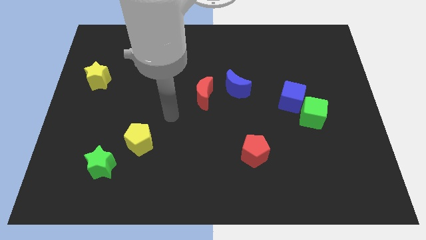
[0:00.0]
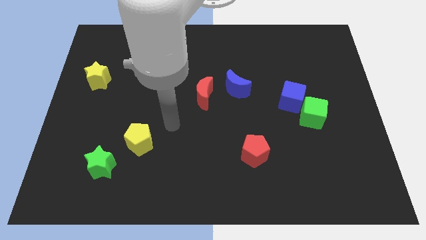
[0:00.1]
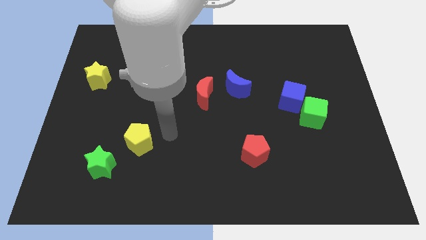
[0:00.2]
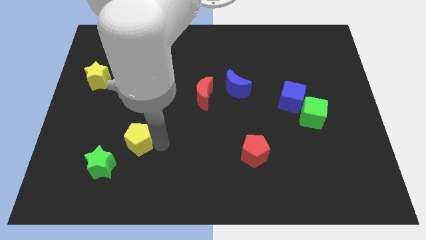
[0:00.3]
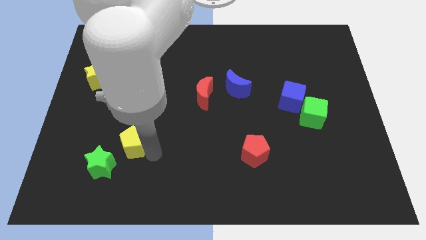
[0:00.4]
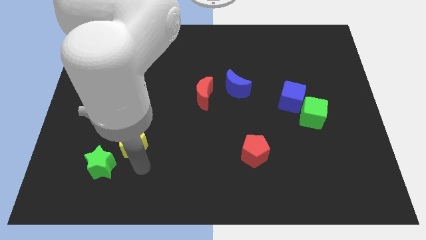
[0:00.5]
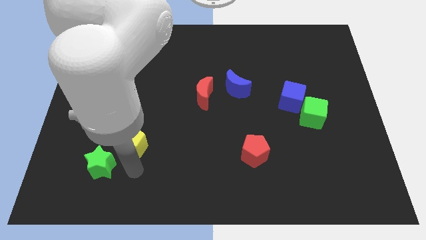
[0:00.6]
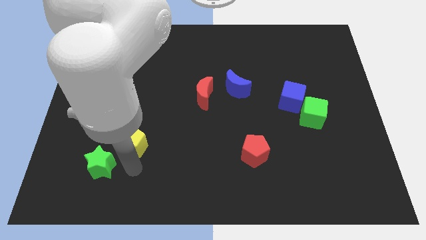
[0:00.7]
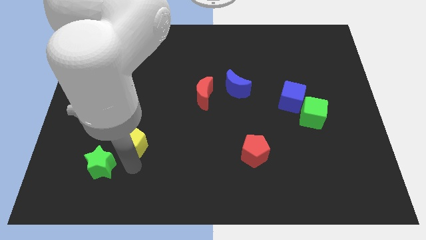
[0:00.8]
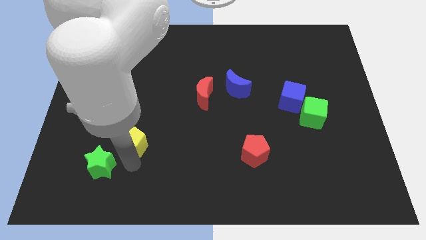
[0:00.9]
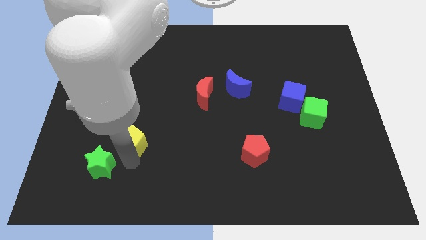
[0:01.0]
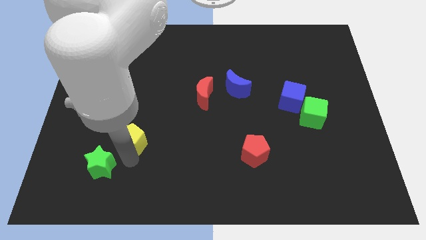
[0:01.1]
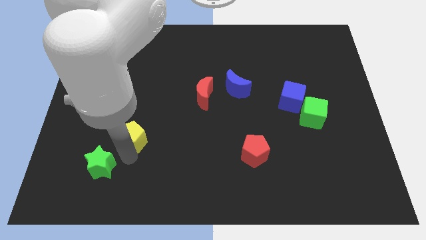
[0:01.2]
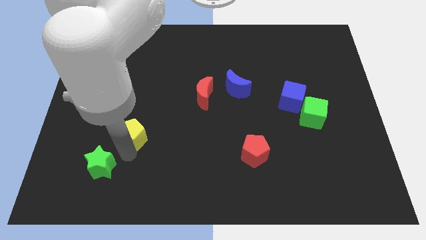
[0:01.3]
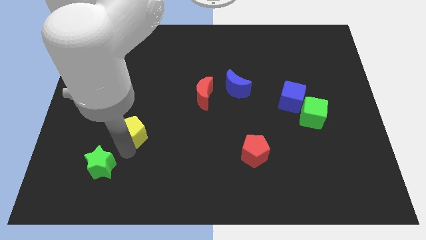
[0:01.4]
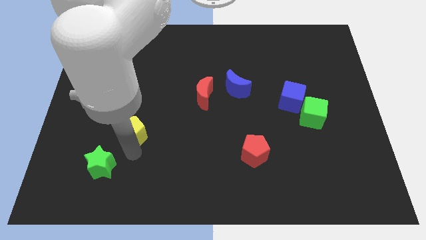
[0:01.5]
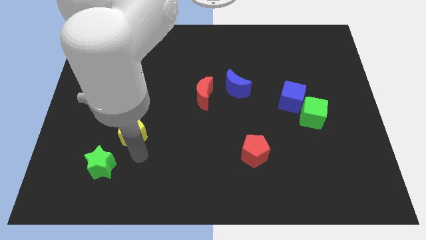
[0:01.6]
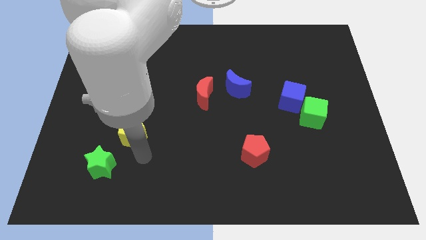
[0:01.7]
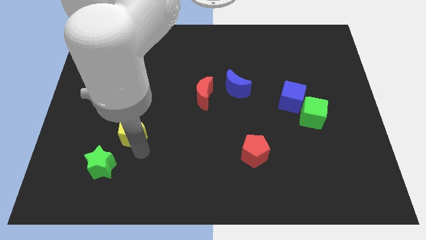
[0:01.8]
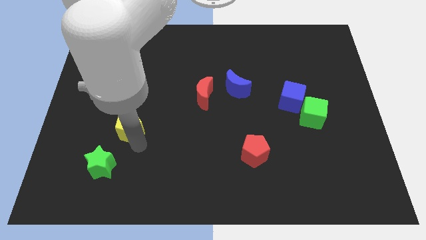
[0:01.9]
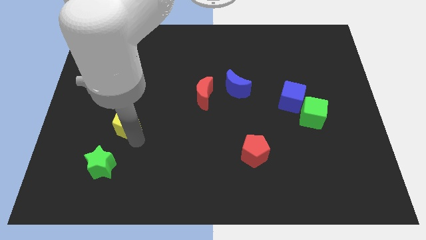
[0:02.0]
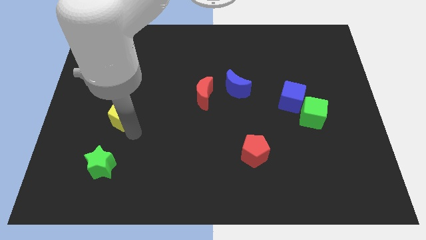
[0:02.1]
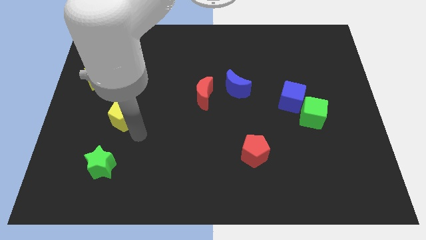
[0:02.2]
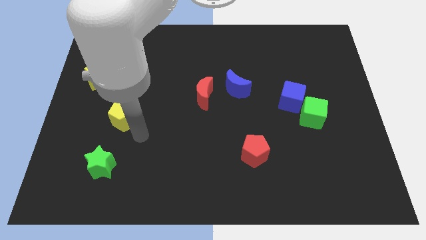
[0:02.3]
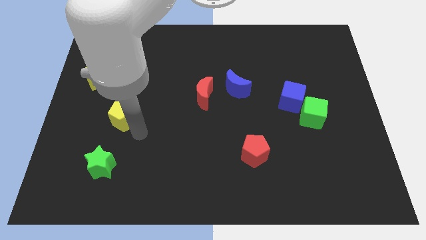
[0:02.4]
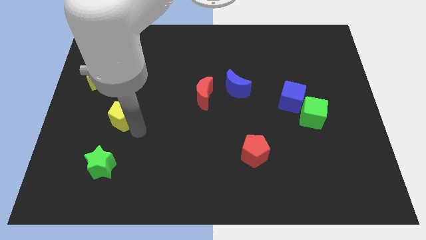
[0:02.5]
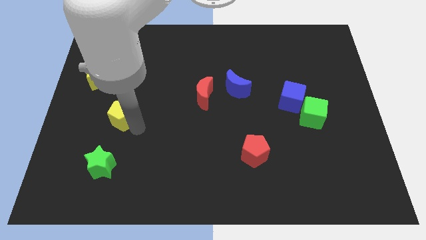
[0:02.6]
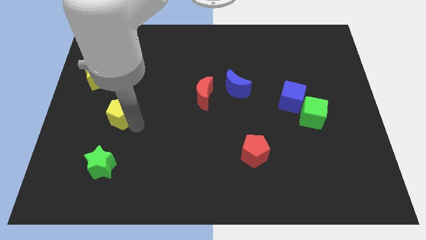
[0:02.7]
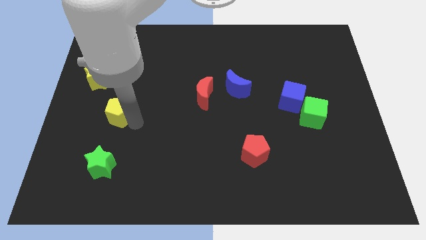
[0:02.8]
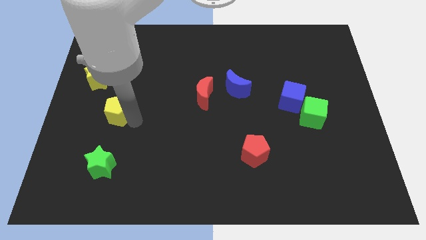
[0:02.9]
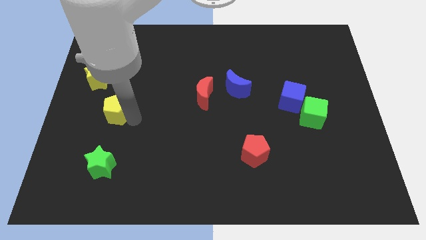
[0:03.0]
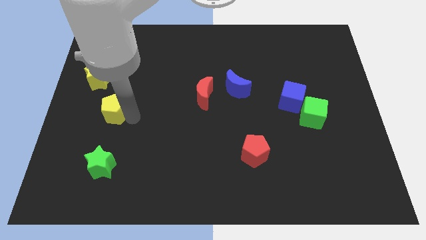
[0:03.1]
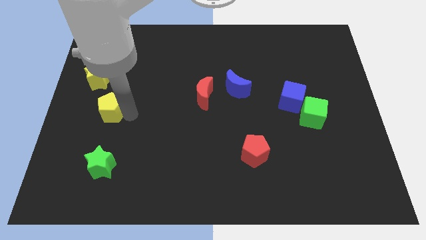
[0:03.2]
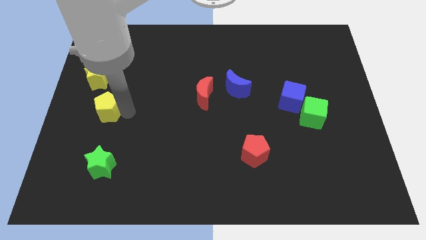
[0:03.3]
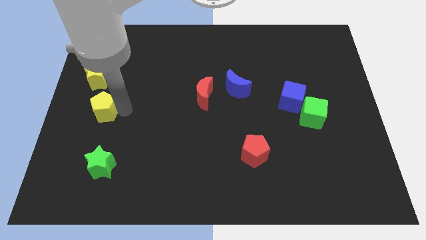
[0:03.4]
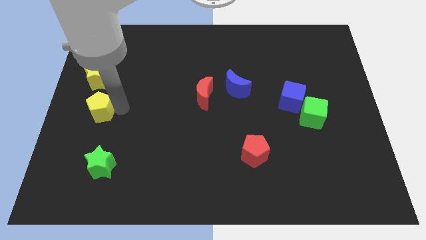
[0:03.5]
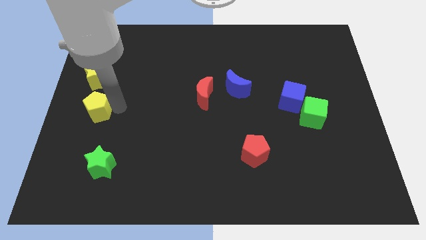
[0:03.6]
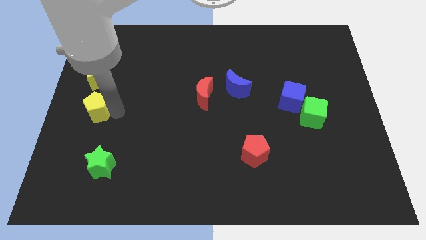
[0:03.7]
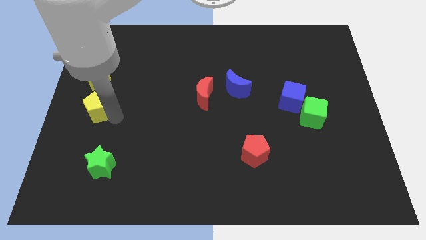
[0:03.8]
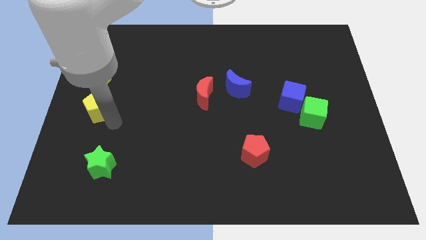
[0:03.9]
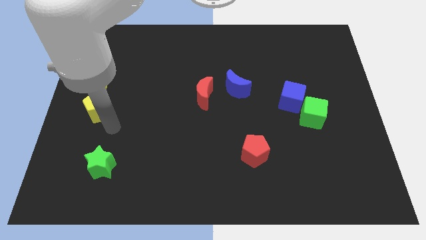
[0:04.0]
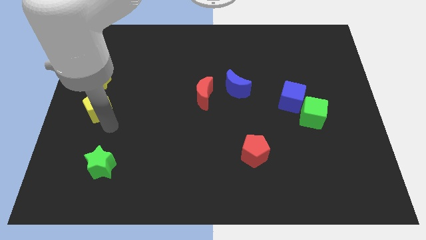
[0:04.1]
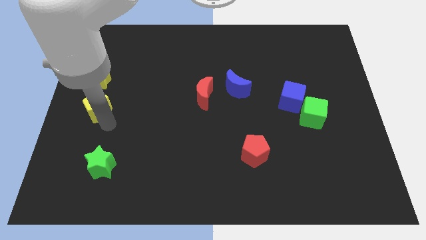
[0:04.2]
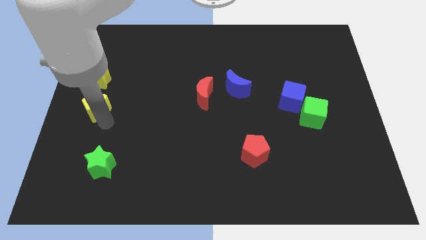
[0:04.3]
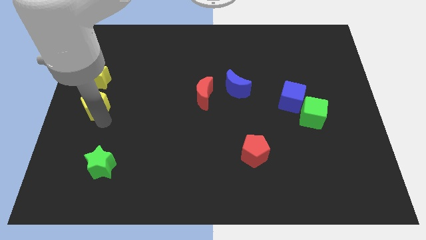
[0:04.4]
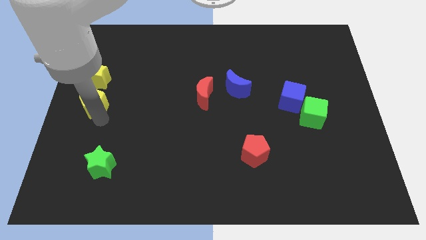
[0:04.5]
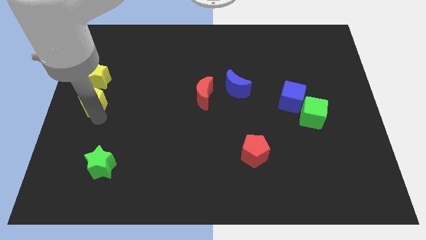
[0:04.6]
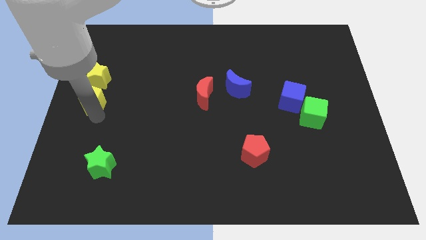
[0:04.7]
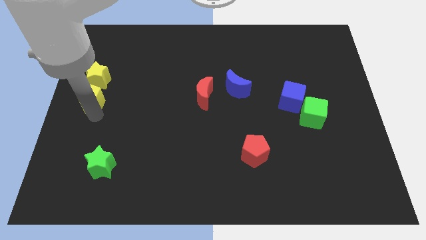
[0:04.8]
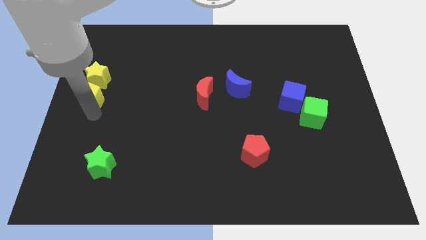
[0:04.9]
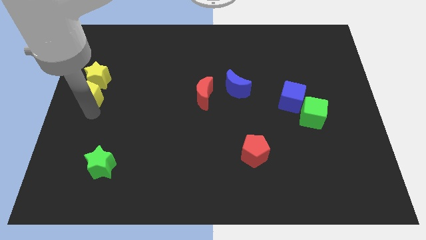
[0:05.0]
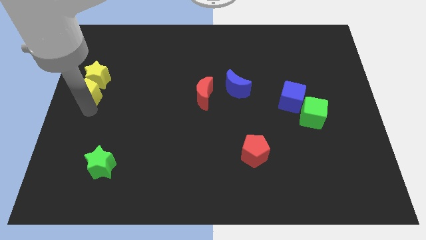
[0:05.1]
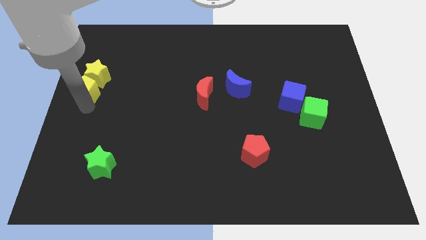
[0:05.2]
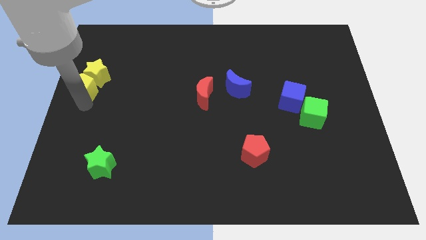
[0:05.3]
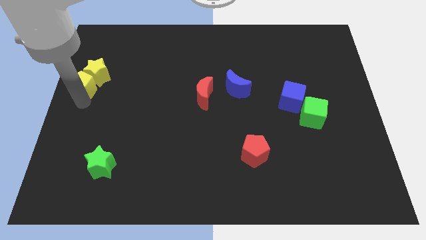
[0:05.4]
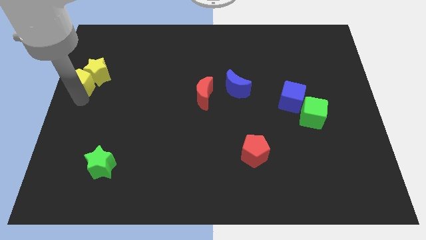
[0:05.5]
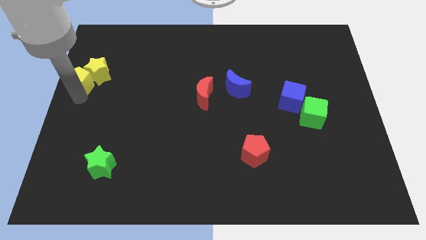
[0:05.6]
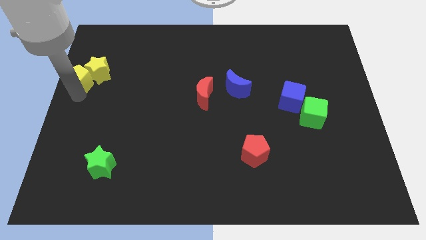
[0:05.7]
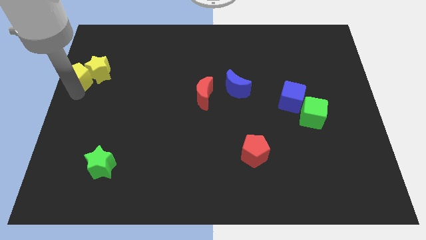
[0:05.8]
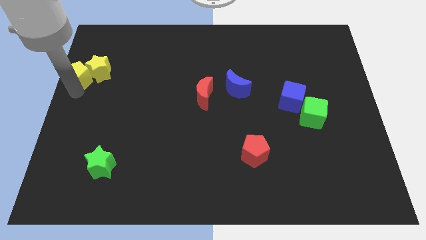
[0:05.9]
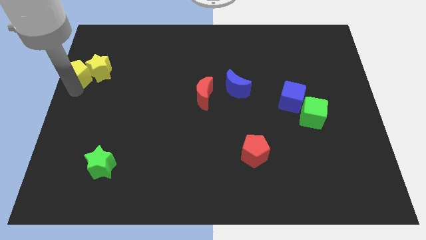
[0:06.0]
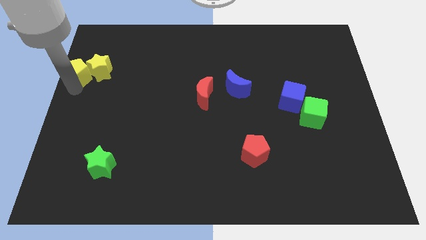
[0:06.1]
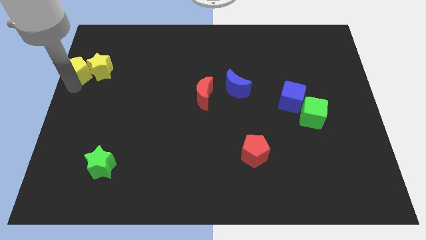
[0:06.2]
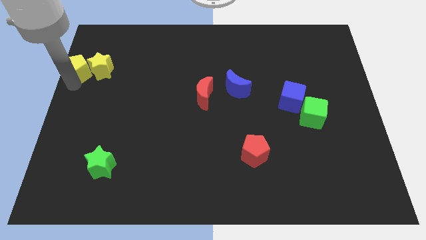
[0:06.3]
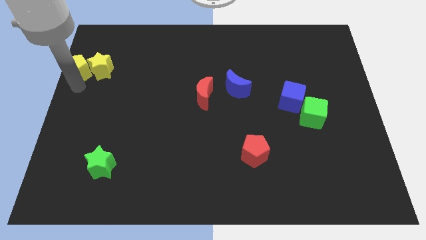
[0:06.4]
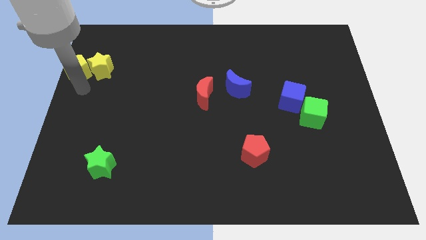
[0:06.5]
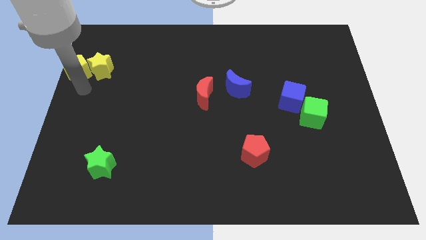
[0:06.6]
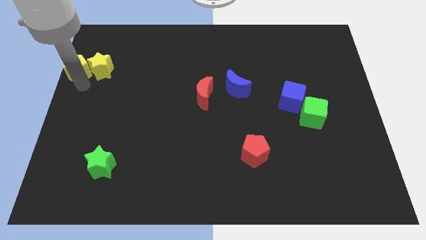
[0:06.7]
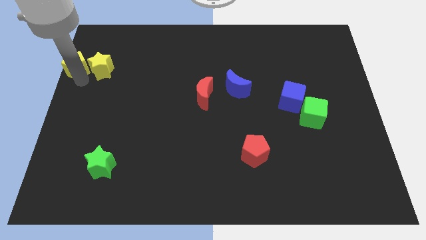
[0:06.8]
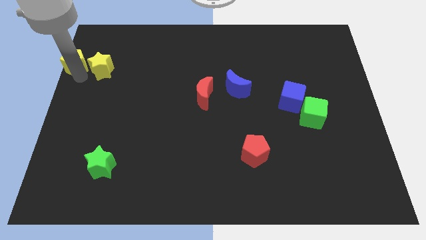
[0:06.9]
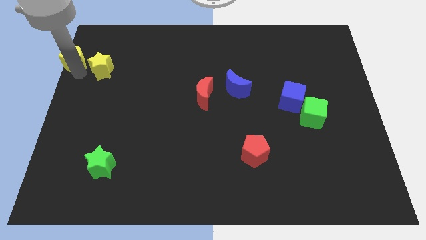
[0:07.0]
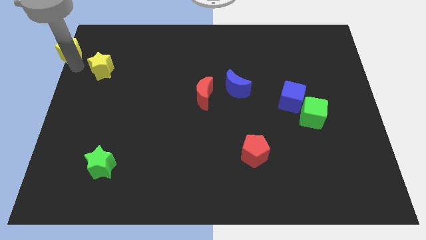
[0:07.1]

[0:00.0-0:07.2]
put the yellow pentagon to the upper left corner
